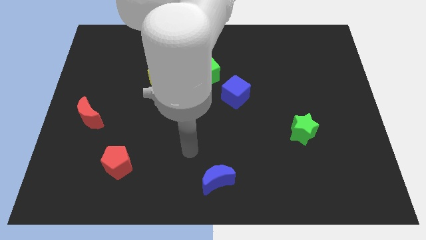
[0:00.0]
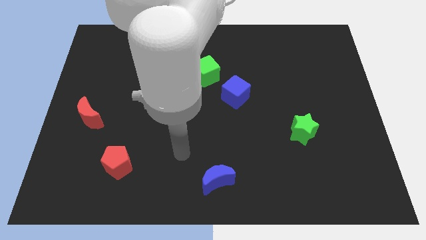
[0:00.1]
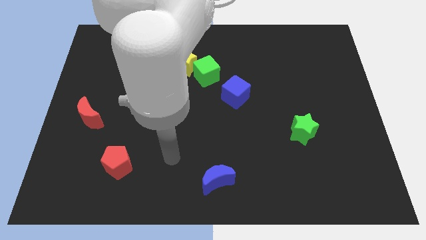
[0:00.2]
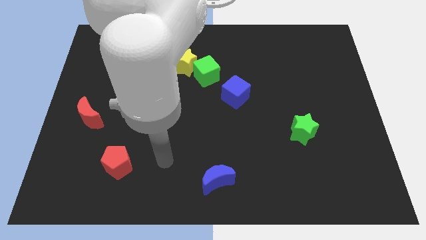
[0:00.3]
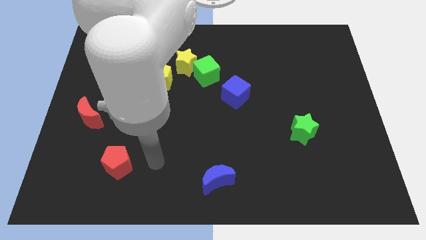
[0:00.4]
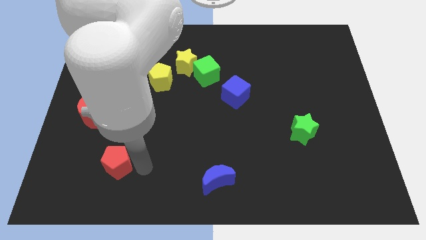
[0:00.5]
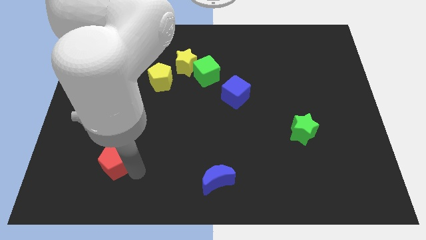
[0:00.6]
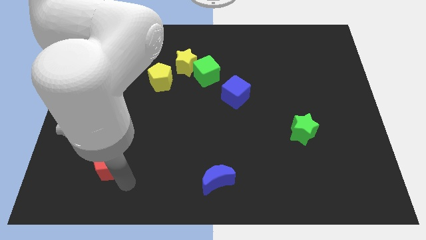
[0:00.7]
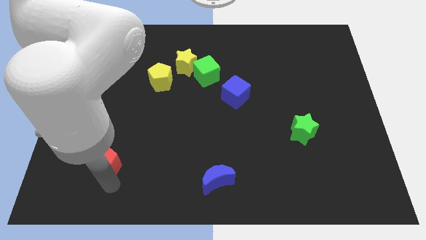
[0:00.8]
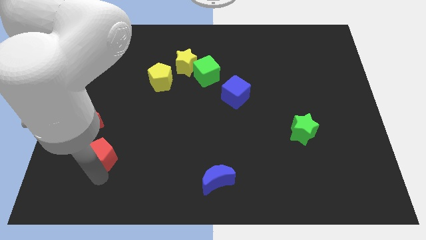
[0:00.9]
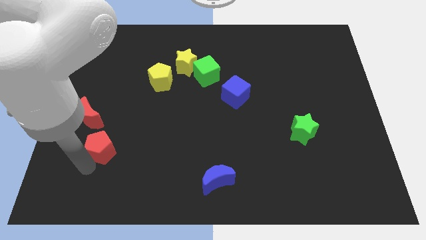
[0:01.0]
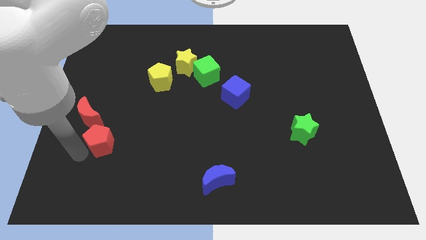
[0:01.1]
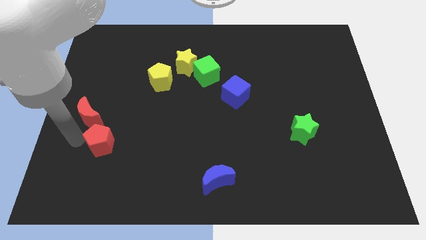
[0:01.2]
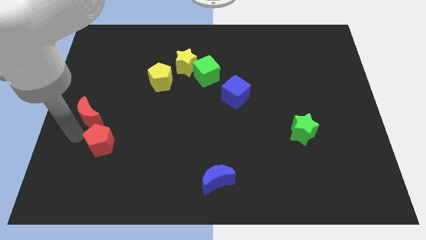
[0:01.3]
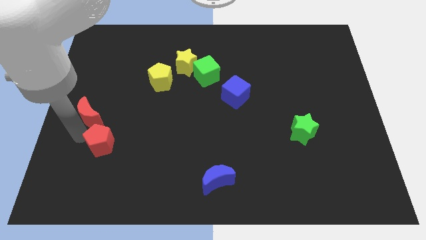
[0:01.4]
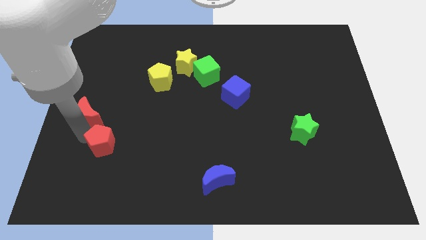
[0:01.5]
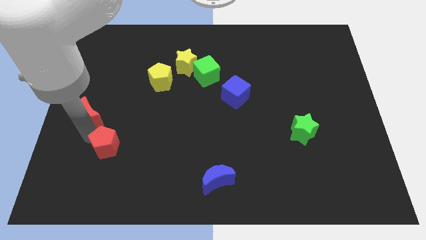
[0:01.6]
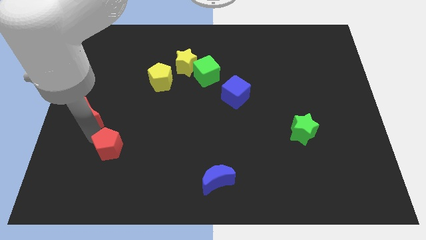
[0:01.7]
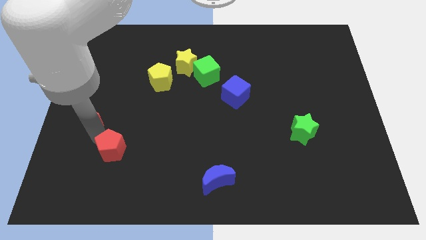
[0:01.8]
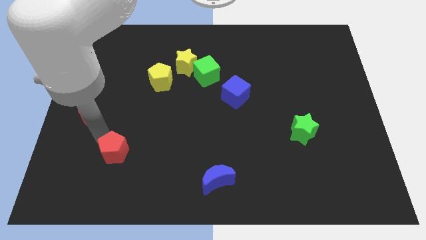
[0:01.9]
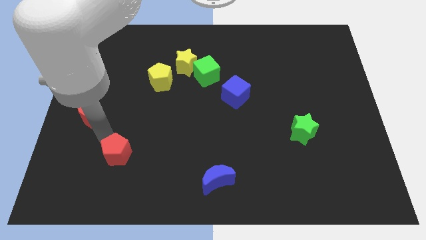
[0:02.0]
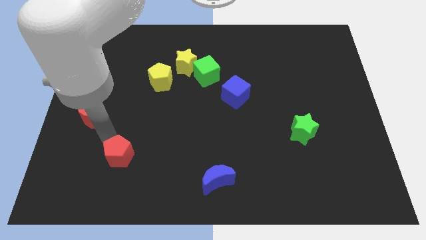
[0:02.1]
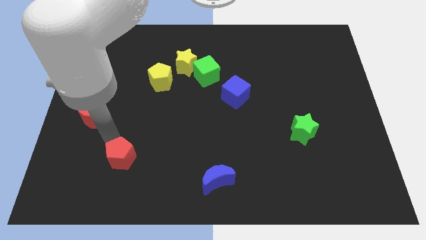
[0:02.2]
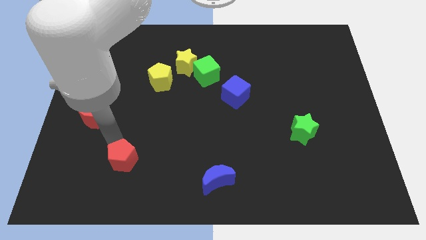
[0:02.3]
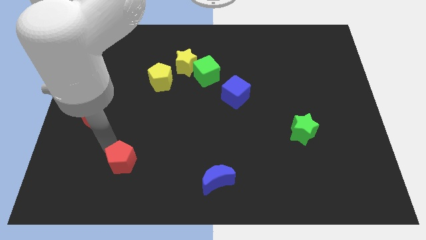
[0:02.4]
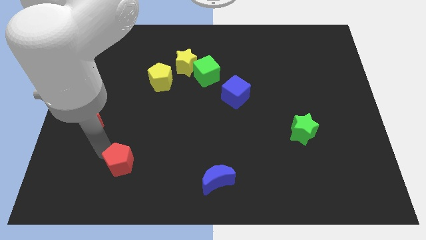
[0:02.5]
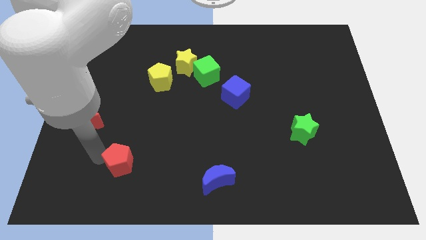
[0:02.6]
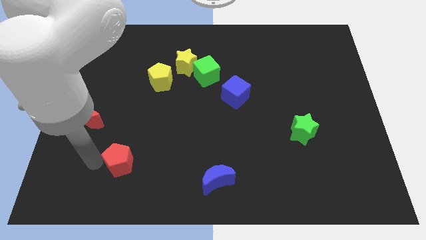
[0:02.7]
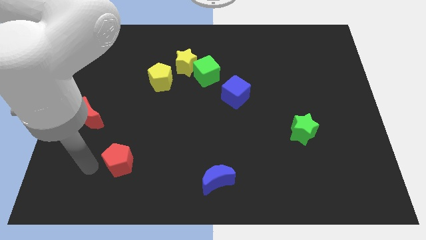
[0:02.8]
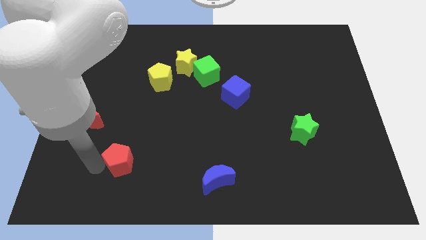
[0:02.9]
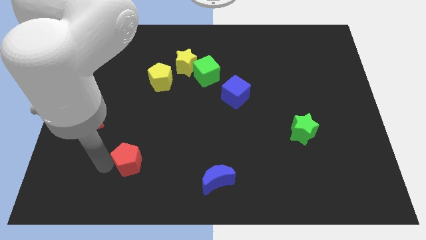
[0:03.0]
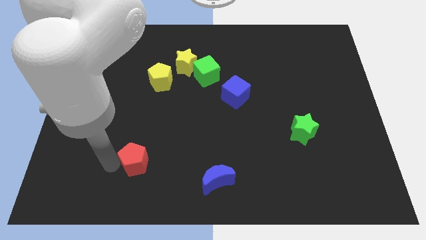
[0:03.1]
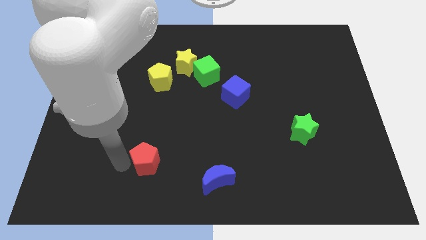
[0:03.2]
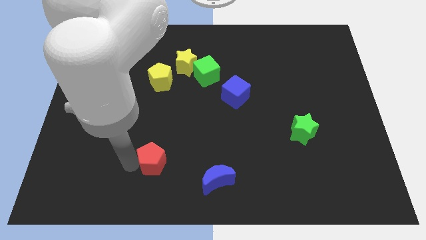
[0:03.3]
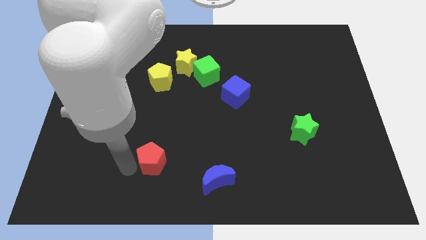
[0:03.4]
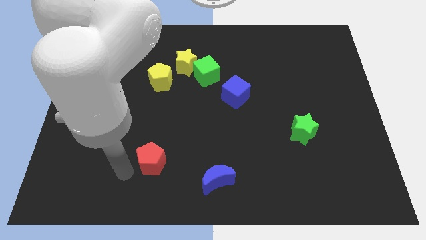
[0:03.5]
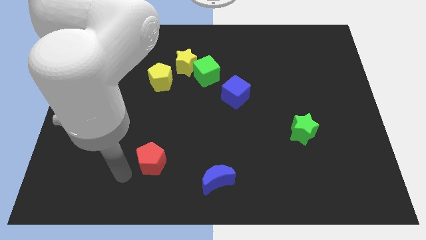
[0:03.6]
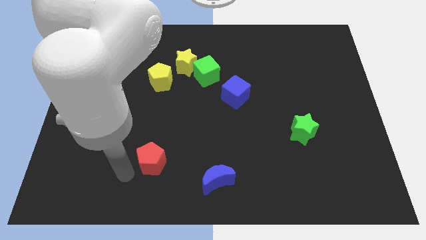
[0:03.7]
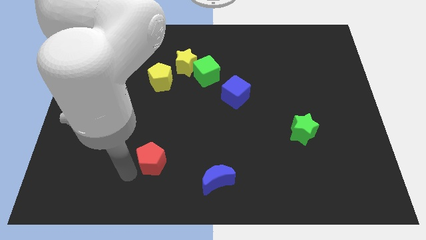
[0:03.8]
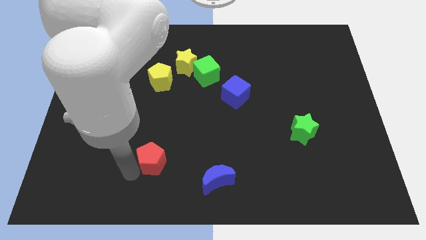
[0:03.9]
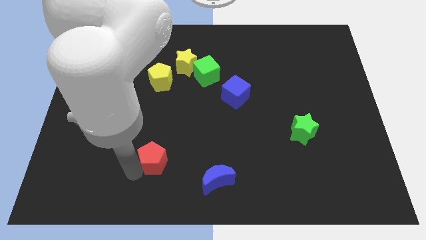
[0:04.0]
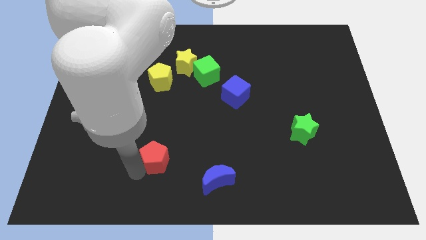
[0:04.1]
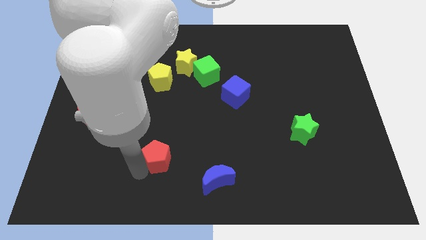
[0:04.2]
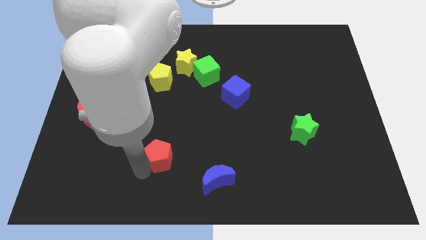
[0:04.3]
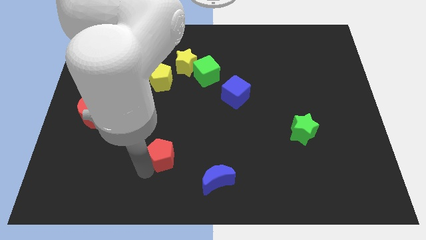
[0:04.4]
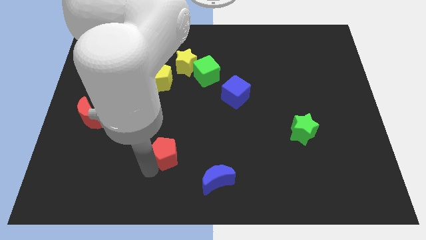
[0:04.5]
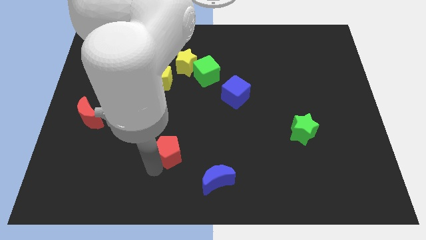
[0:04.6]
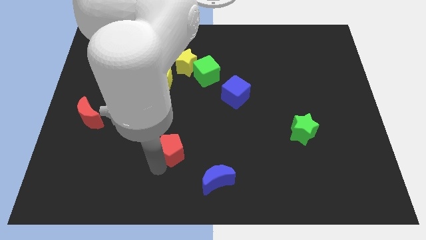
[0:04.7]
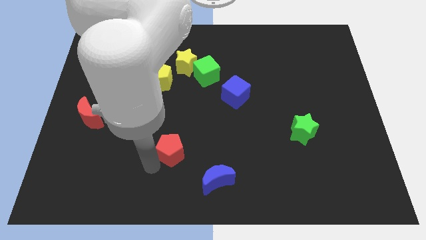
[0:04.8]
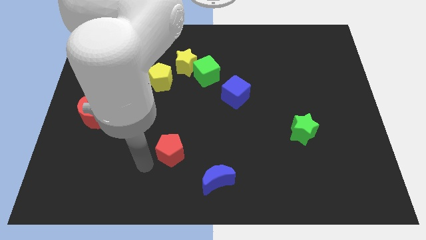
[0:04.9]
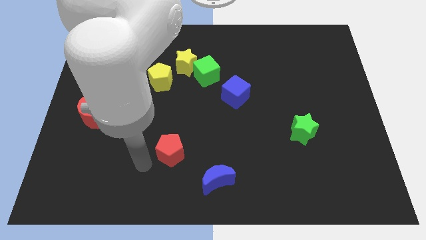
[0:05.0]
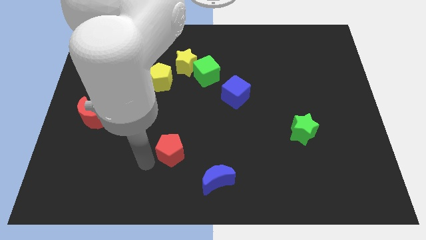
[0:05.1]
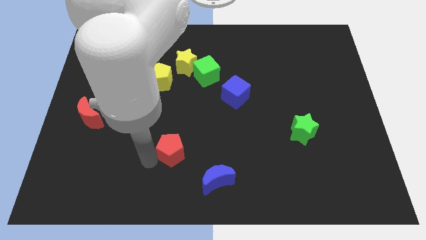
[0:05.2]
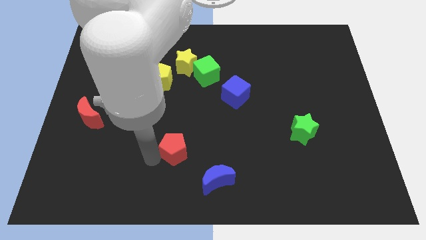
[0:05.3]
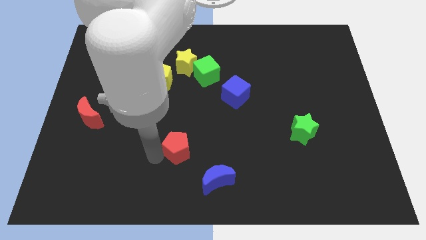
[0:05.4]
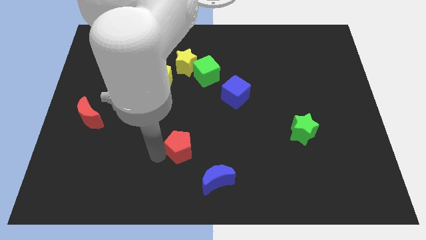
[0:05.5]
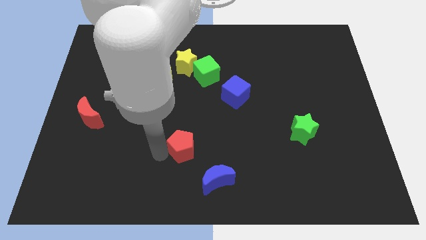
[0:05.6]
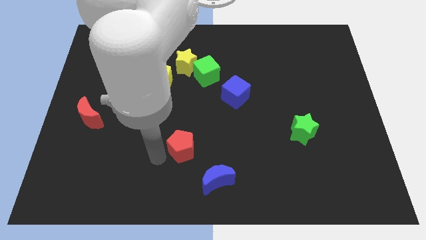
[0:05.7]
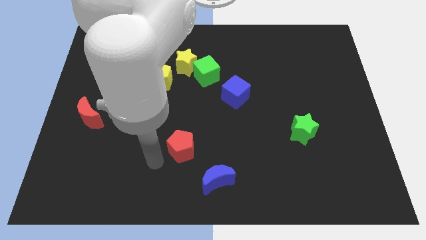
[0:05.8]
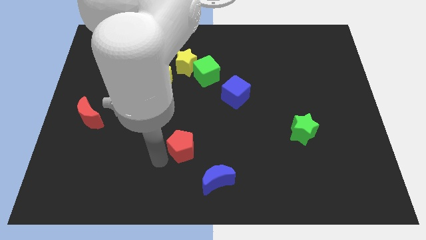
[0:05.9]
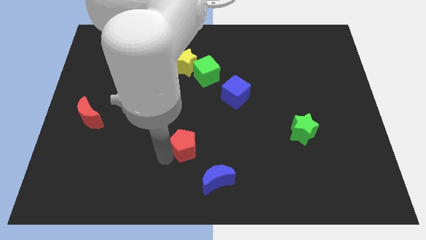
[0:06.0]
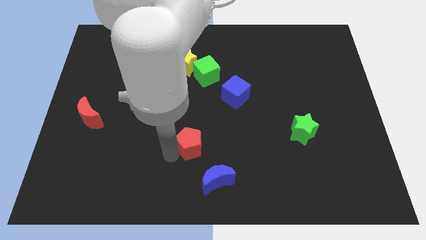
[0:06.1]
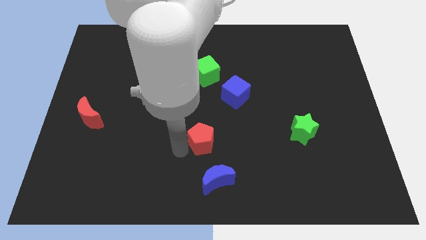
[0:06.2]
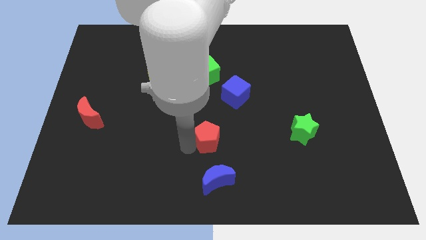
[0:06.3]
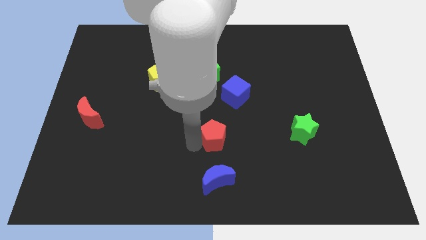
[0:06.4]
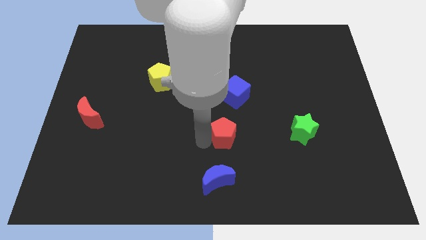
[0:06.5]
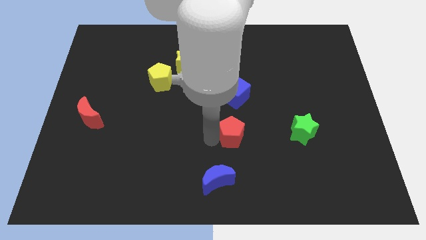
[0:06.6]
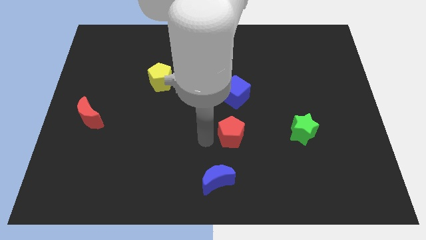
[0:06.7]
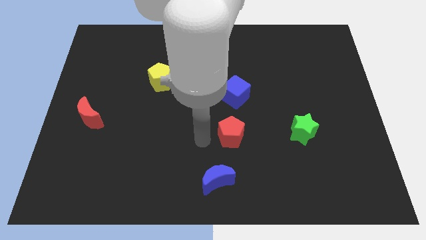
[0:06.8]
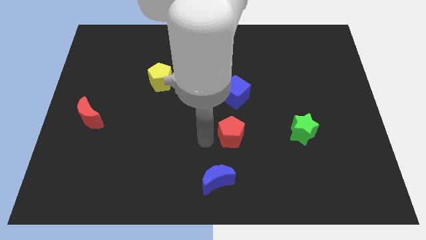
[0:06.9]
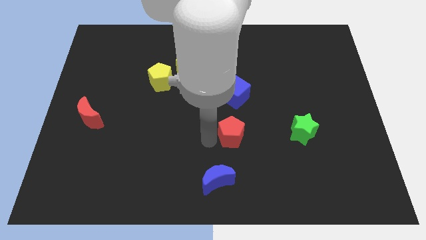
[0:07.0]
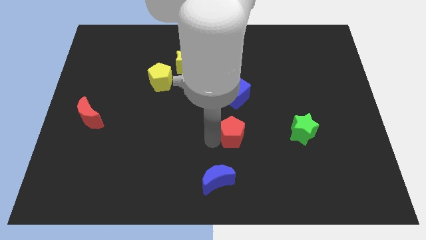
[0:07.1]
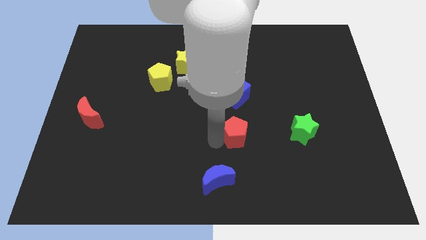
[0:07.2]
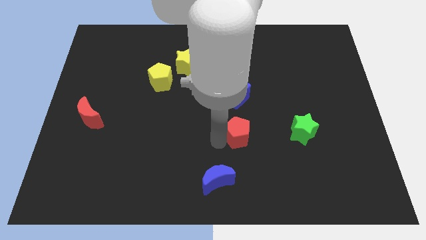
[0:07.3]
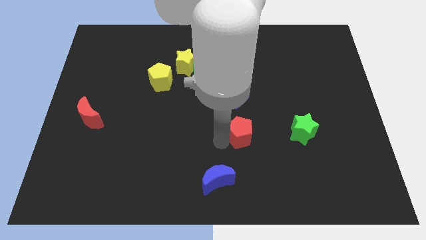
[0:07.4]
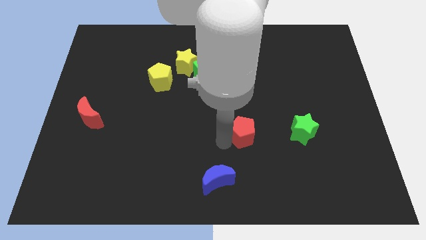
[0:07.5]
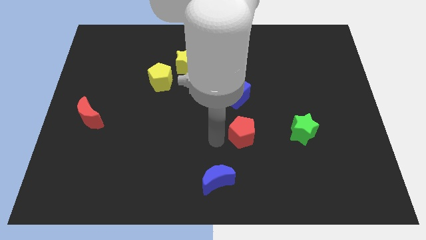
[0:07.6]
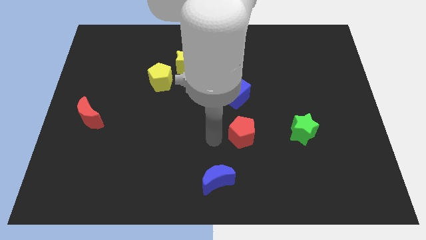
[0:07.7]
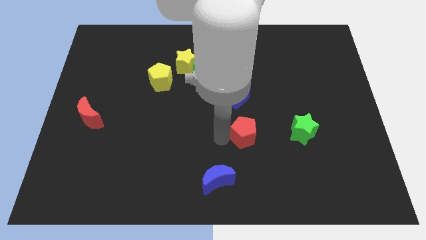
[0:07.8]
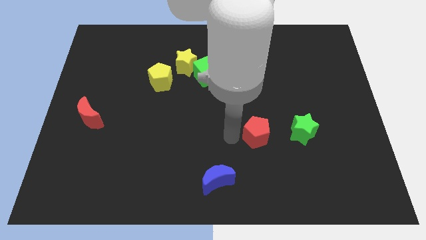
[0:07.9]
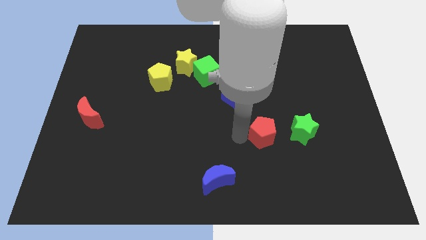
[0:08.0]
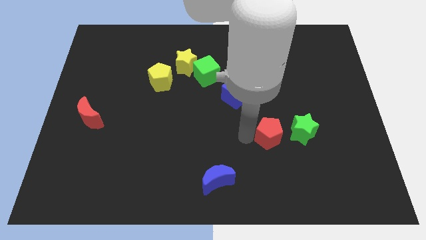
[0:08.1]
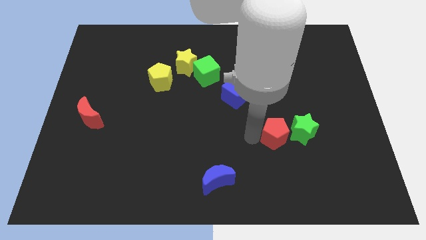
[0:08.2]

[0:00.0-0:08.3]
put the red pentagon towards the green star
